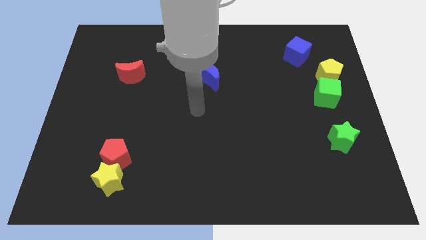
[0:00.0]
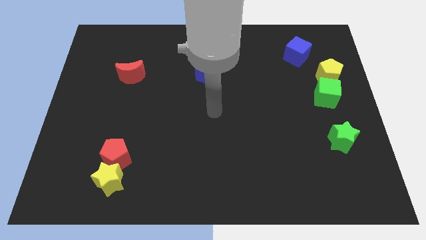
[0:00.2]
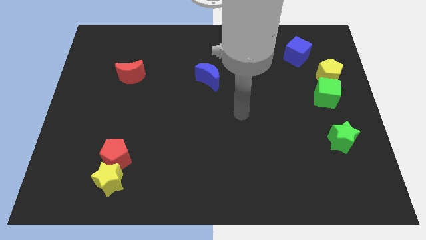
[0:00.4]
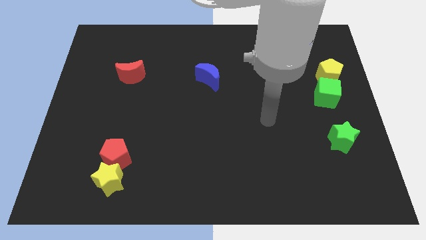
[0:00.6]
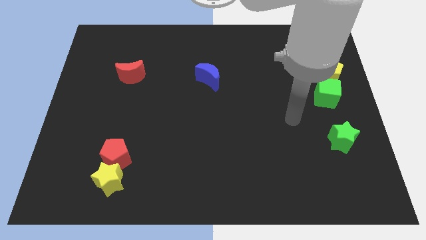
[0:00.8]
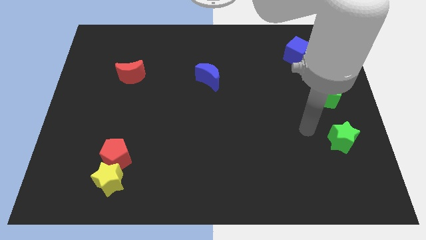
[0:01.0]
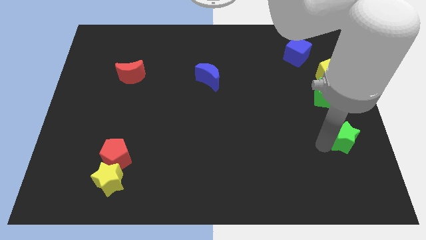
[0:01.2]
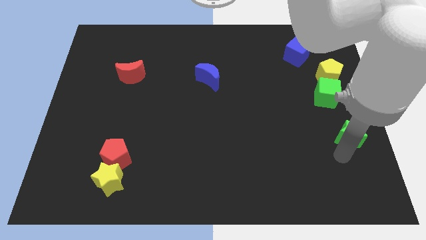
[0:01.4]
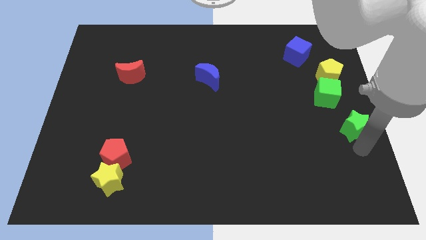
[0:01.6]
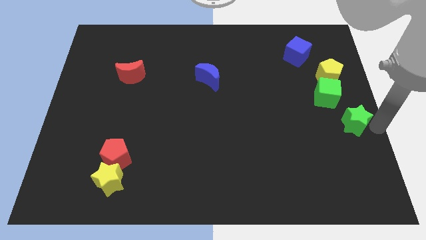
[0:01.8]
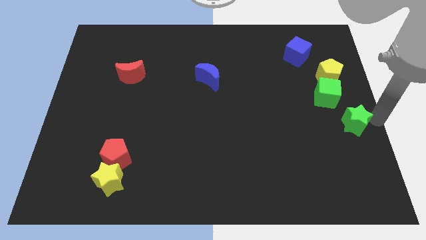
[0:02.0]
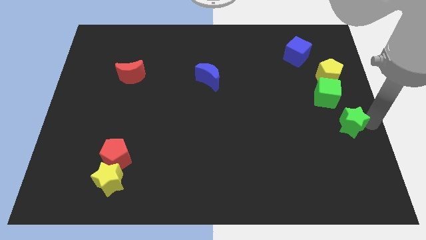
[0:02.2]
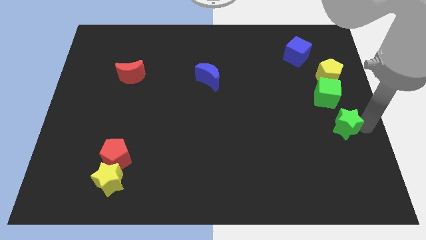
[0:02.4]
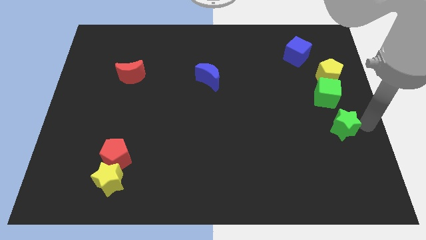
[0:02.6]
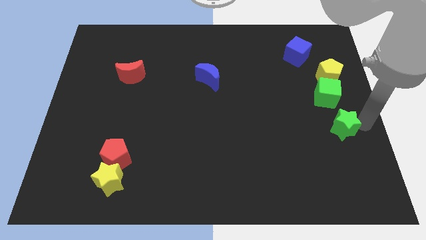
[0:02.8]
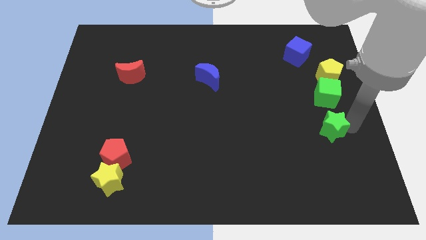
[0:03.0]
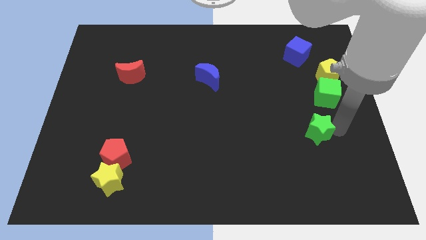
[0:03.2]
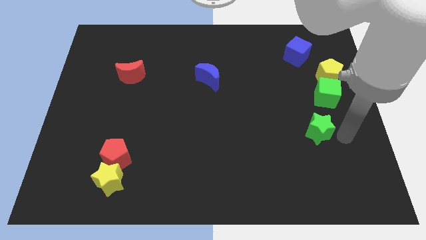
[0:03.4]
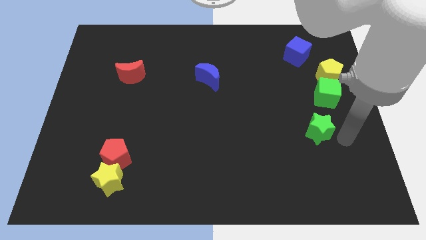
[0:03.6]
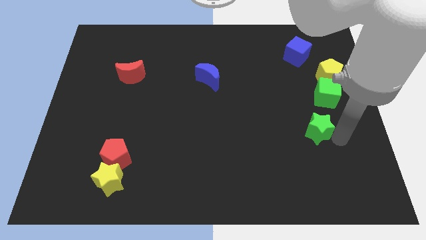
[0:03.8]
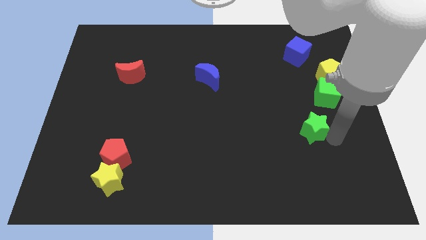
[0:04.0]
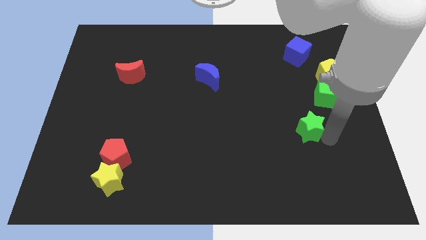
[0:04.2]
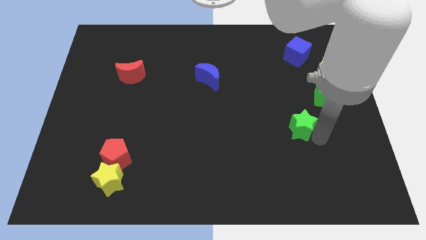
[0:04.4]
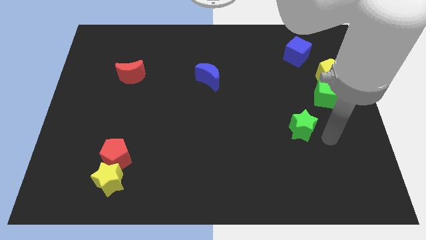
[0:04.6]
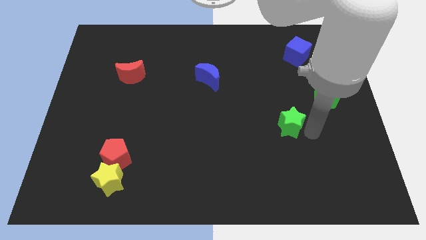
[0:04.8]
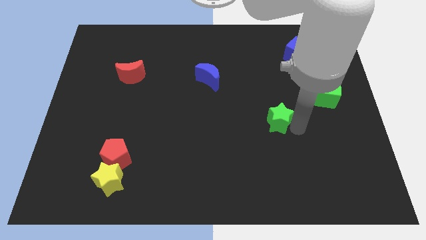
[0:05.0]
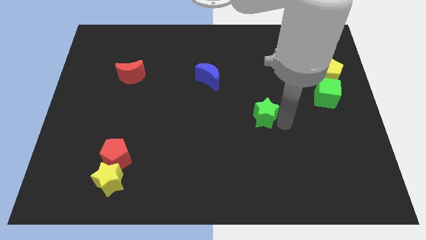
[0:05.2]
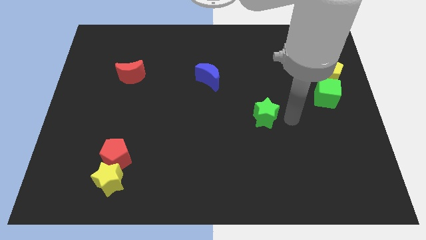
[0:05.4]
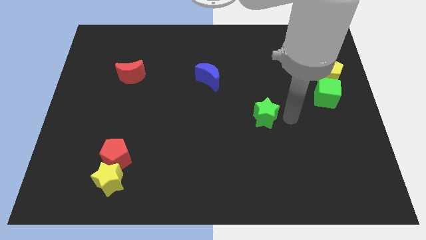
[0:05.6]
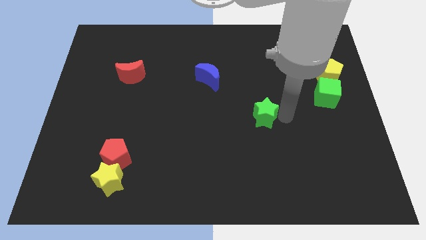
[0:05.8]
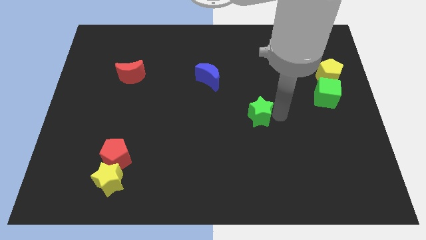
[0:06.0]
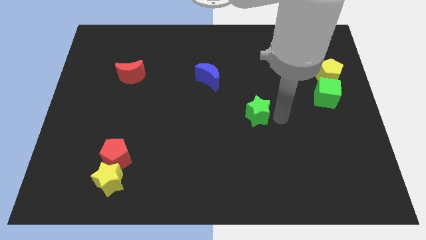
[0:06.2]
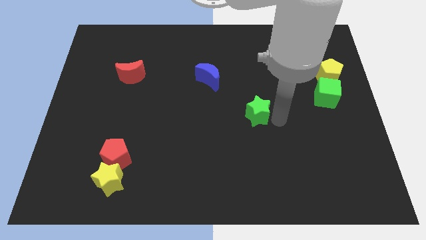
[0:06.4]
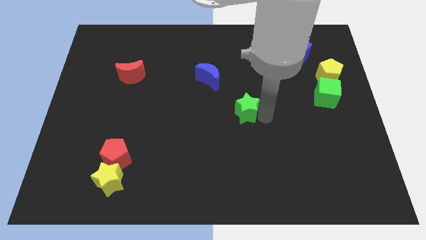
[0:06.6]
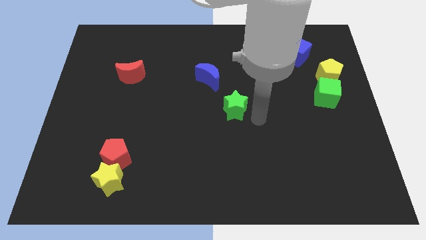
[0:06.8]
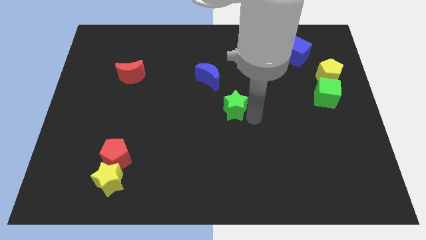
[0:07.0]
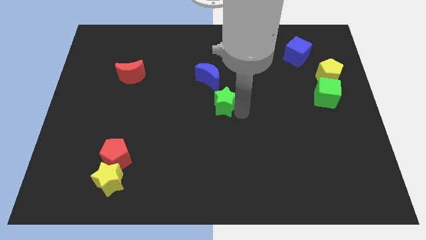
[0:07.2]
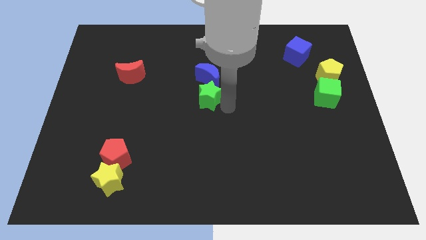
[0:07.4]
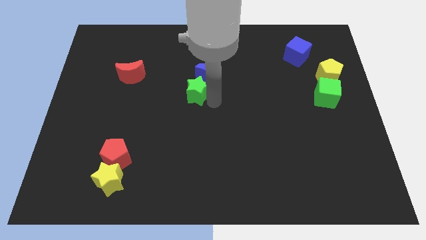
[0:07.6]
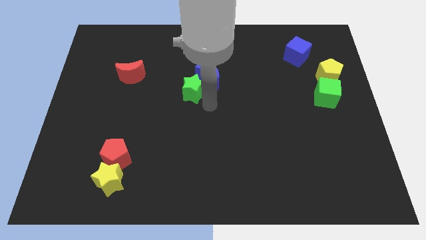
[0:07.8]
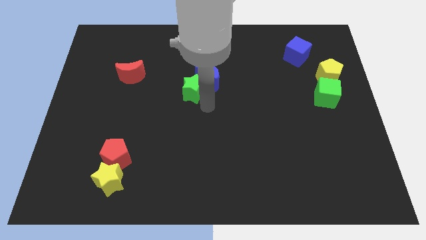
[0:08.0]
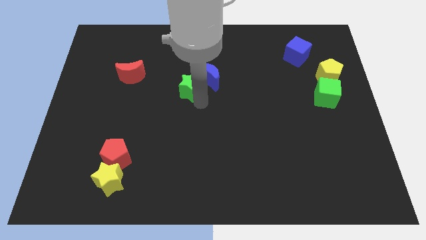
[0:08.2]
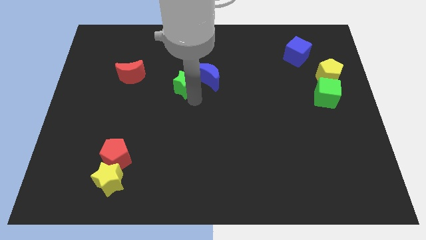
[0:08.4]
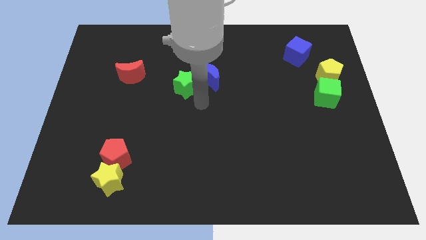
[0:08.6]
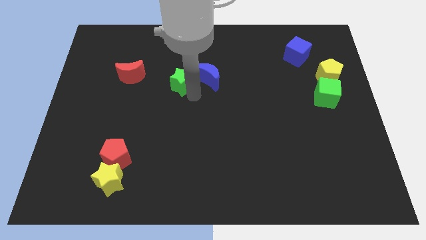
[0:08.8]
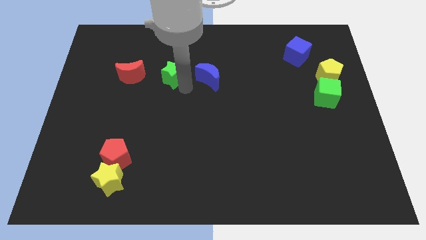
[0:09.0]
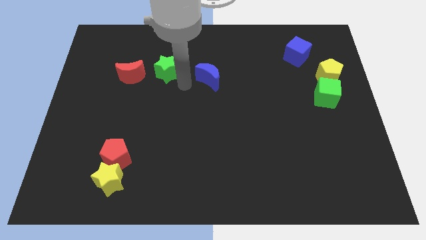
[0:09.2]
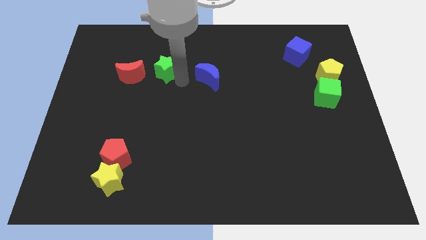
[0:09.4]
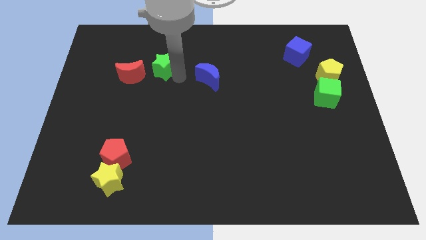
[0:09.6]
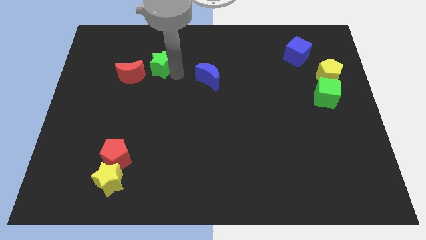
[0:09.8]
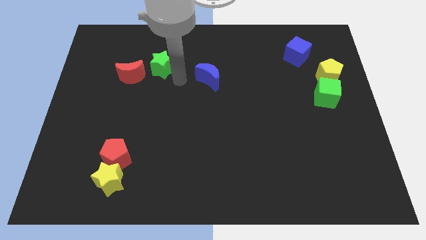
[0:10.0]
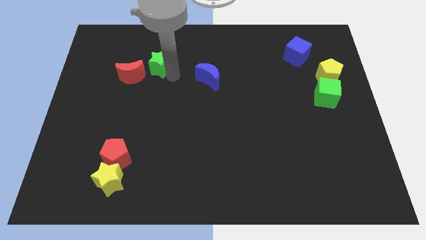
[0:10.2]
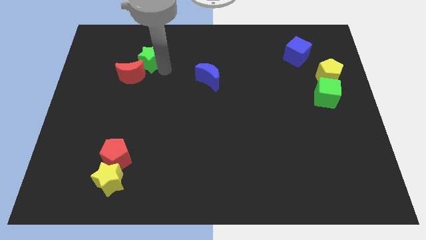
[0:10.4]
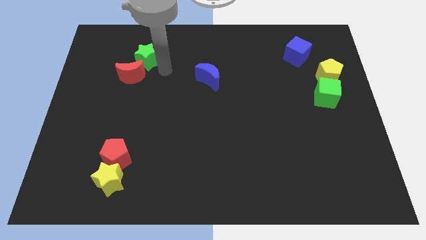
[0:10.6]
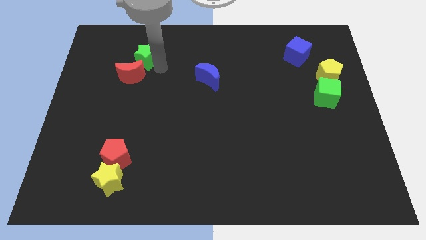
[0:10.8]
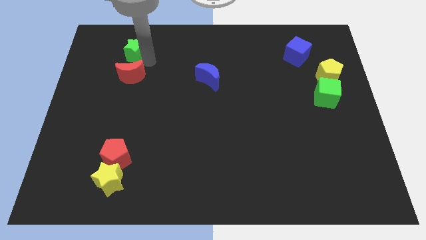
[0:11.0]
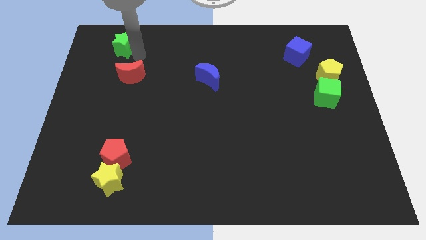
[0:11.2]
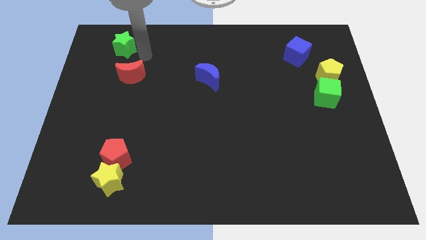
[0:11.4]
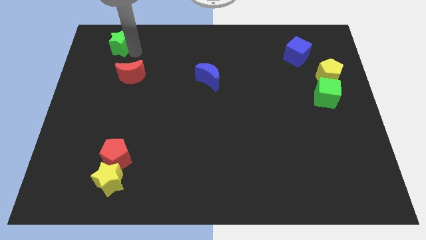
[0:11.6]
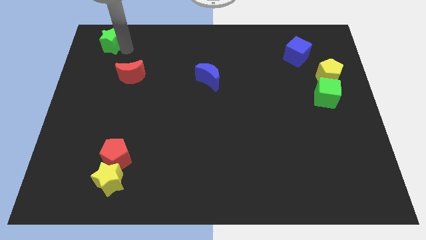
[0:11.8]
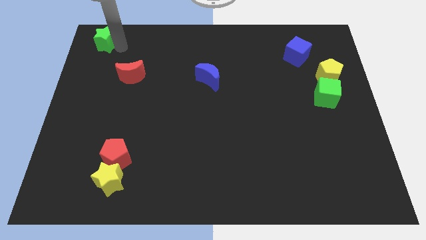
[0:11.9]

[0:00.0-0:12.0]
put the green star to the upper left corner

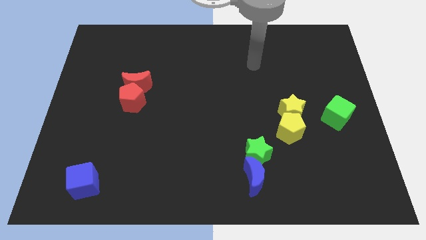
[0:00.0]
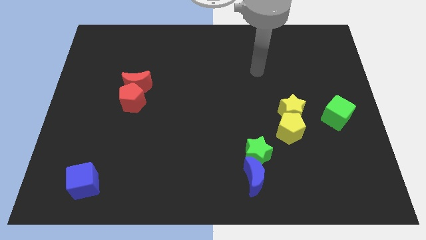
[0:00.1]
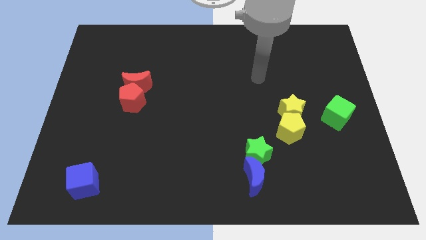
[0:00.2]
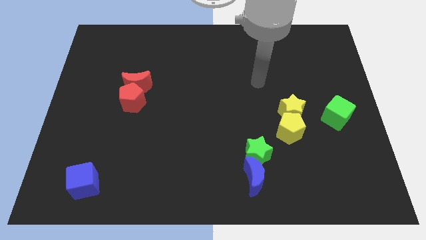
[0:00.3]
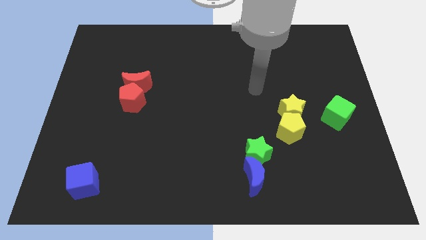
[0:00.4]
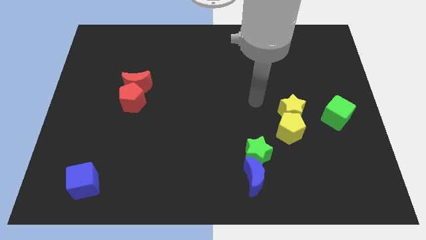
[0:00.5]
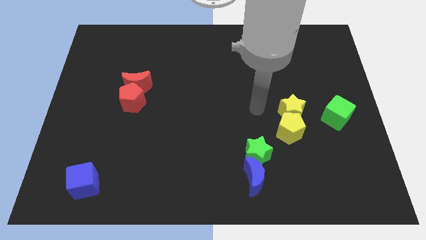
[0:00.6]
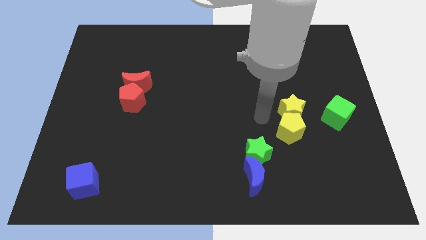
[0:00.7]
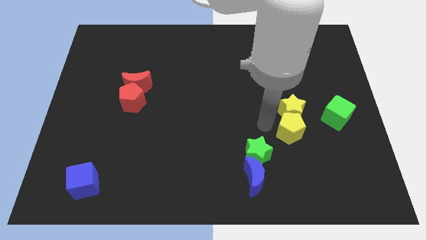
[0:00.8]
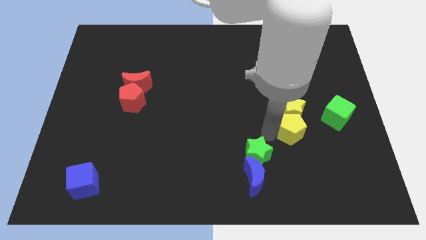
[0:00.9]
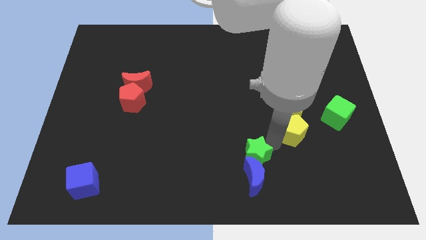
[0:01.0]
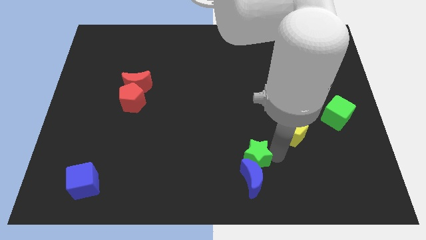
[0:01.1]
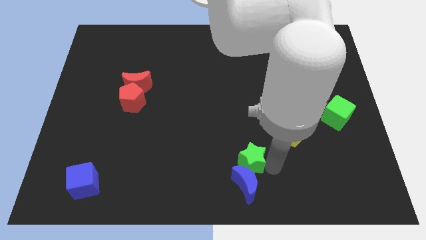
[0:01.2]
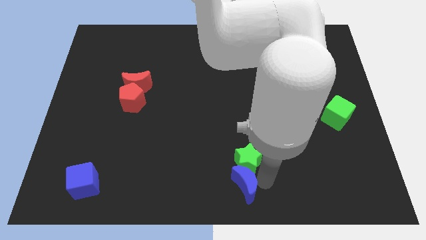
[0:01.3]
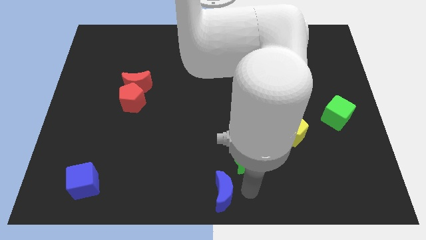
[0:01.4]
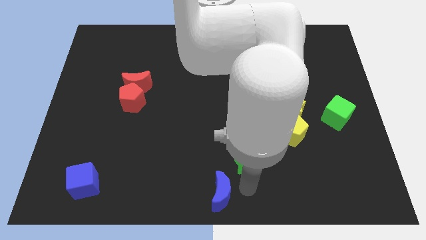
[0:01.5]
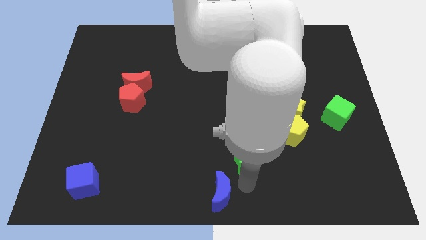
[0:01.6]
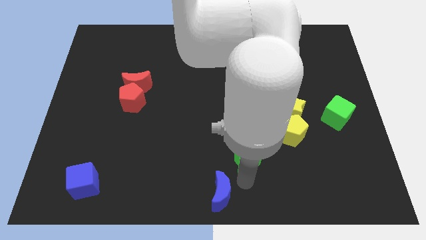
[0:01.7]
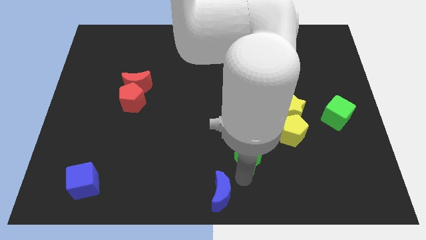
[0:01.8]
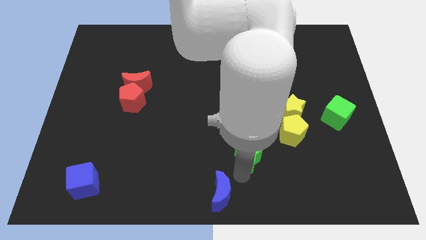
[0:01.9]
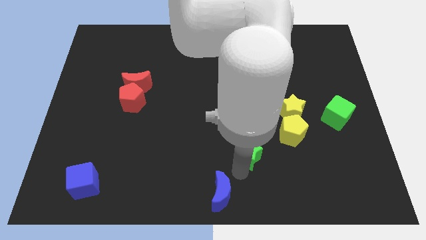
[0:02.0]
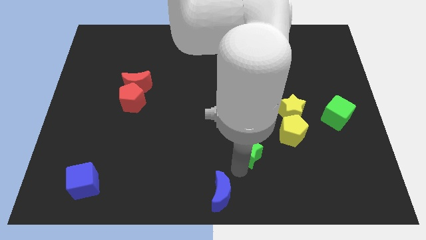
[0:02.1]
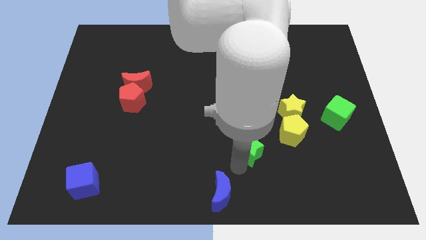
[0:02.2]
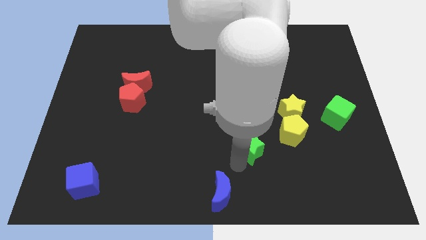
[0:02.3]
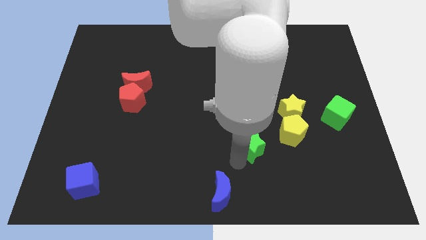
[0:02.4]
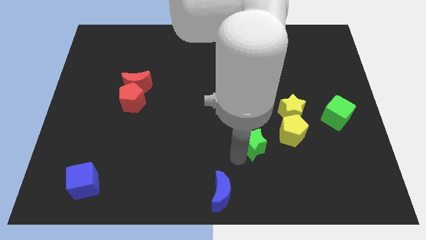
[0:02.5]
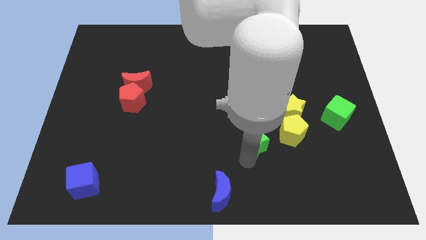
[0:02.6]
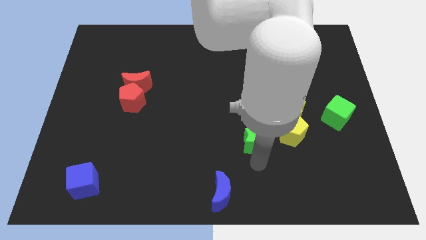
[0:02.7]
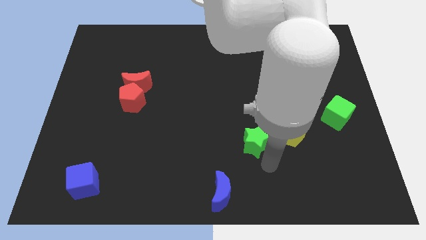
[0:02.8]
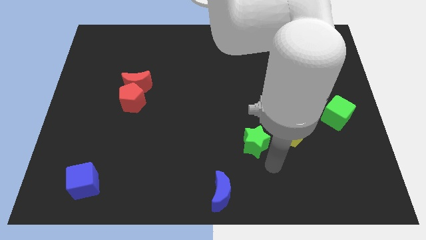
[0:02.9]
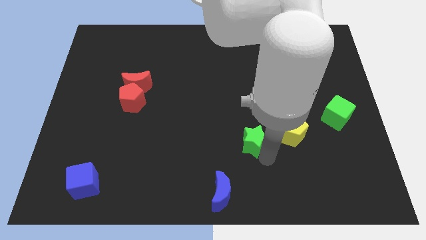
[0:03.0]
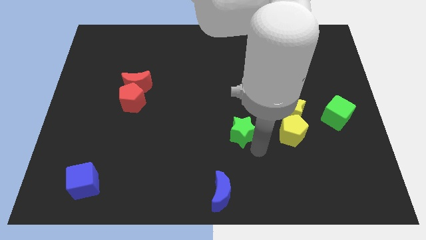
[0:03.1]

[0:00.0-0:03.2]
move the green star to the center of the board
